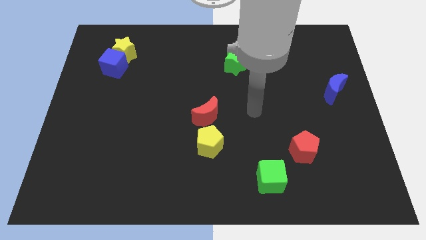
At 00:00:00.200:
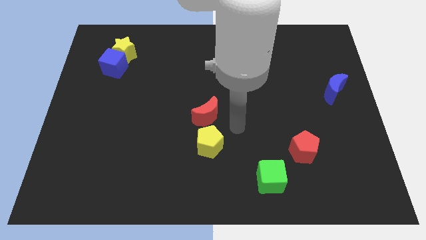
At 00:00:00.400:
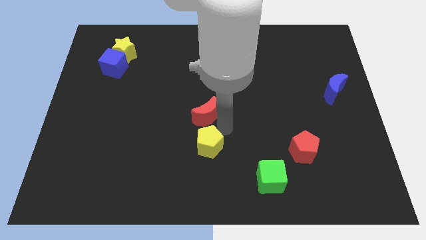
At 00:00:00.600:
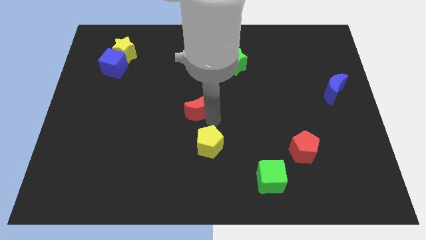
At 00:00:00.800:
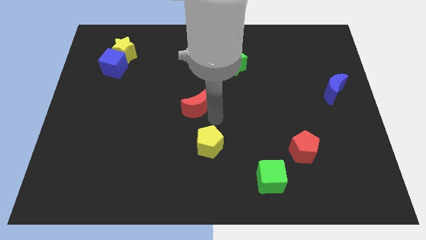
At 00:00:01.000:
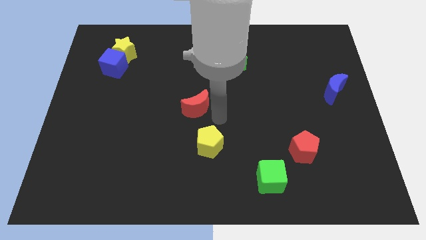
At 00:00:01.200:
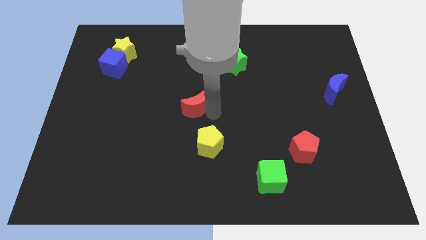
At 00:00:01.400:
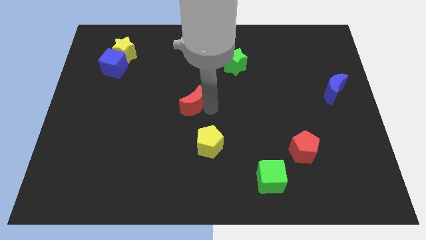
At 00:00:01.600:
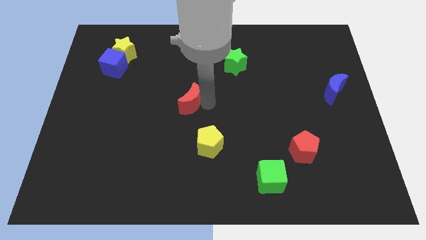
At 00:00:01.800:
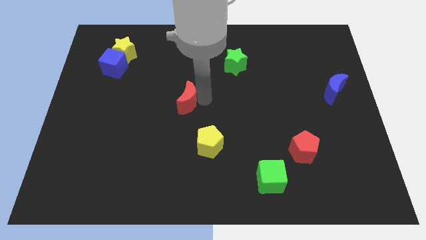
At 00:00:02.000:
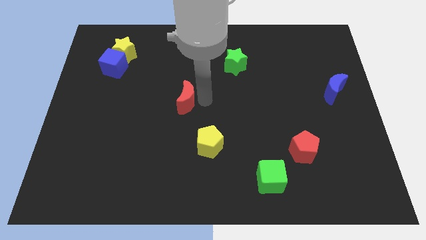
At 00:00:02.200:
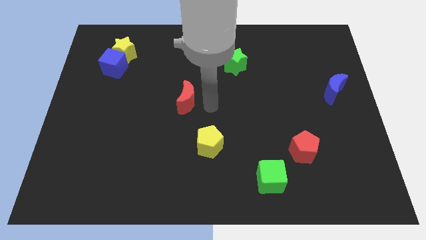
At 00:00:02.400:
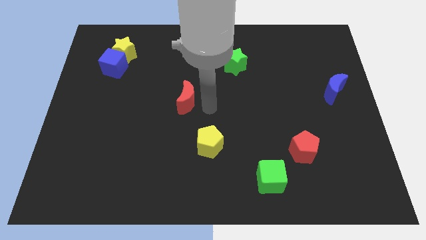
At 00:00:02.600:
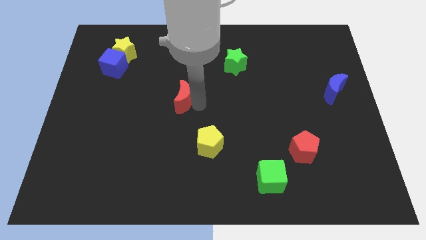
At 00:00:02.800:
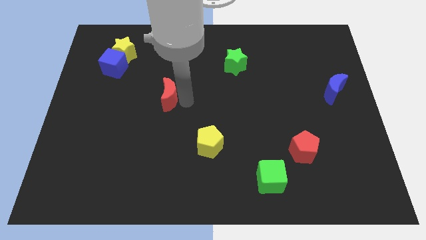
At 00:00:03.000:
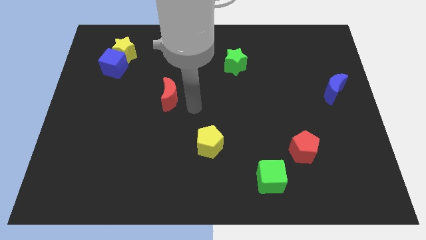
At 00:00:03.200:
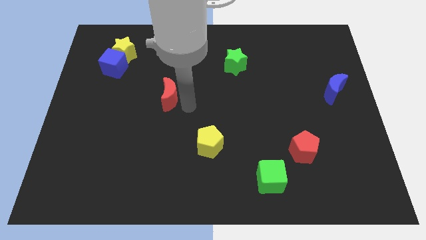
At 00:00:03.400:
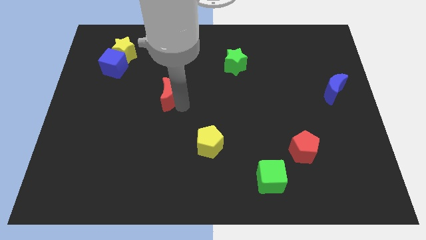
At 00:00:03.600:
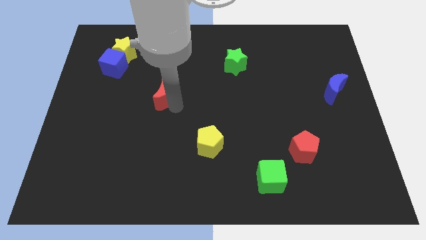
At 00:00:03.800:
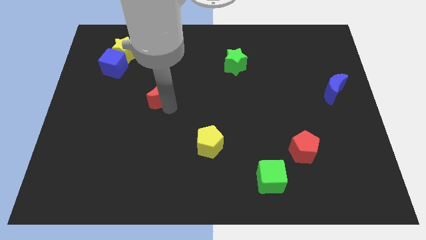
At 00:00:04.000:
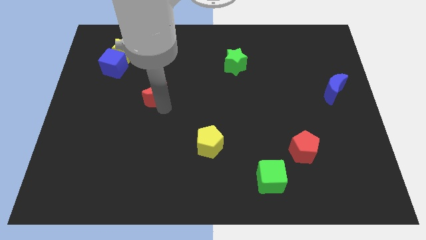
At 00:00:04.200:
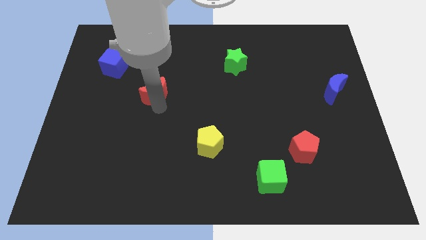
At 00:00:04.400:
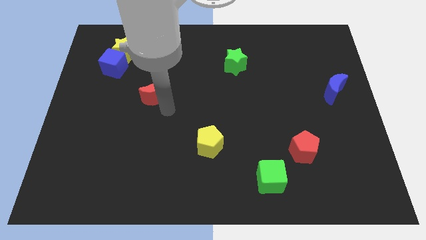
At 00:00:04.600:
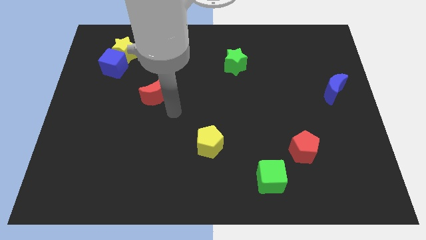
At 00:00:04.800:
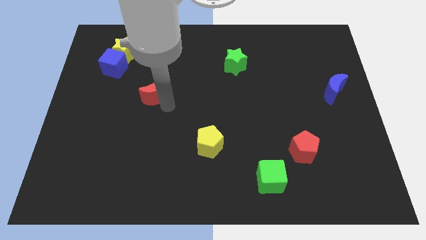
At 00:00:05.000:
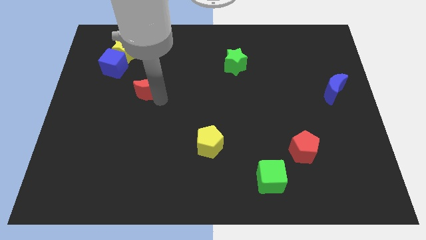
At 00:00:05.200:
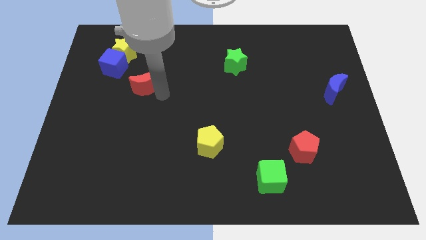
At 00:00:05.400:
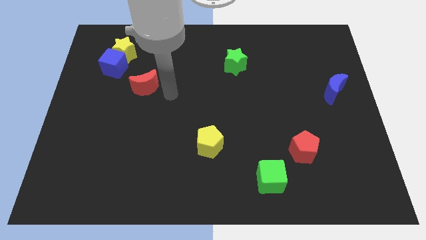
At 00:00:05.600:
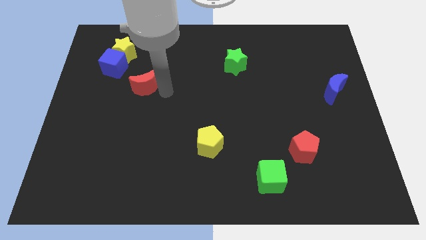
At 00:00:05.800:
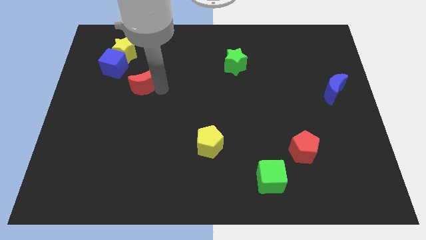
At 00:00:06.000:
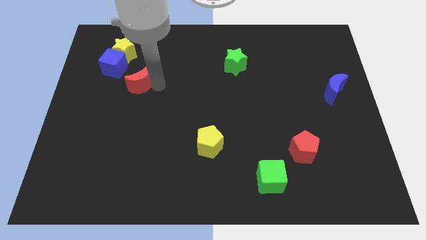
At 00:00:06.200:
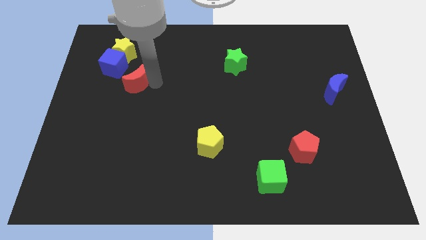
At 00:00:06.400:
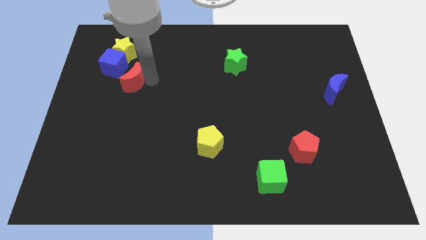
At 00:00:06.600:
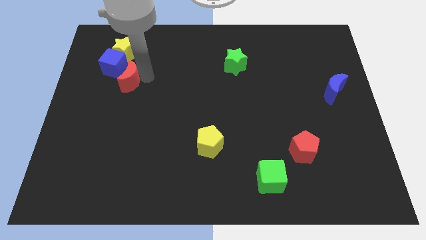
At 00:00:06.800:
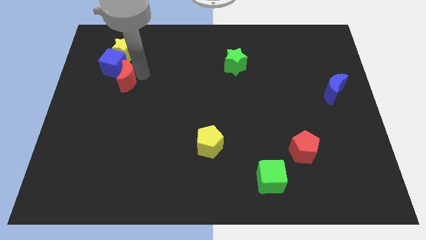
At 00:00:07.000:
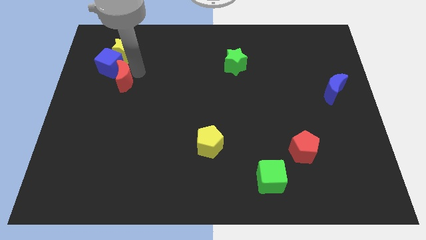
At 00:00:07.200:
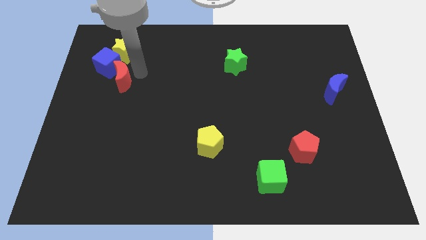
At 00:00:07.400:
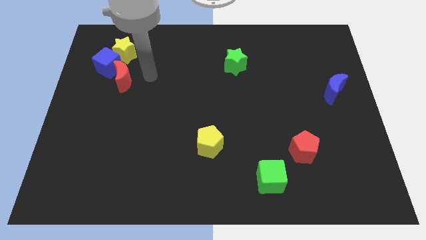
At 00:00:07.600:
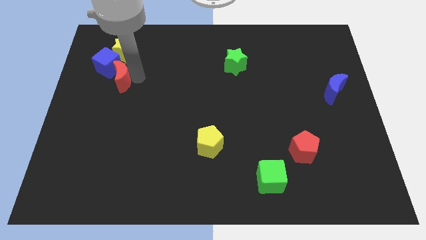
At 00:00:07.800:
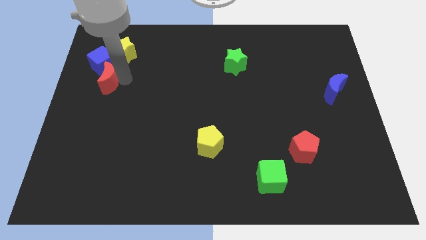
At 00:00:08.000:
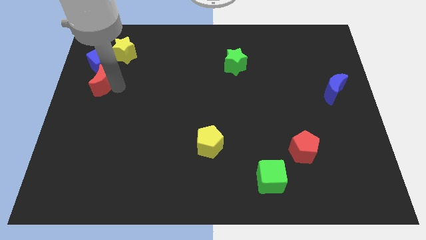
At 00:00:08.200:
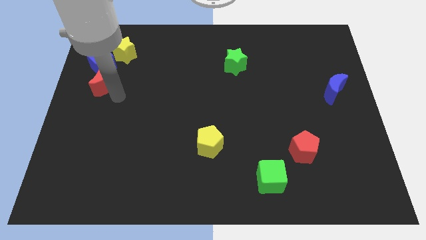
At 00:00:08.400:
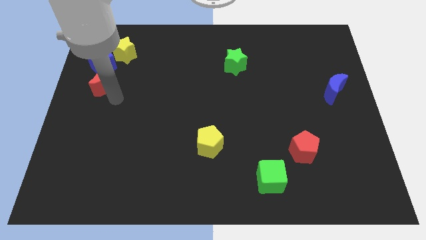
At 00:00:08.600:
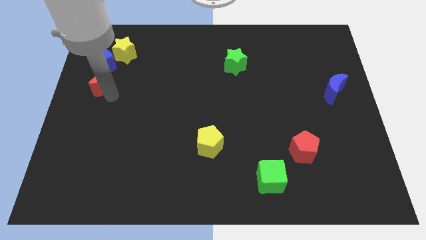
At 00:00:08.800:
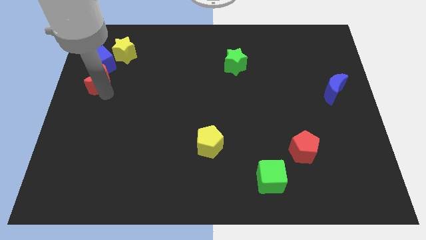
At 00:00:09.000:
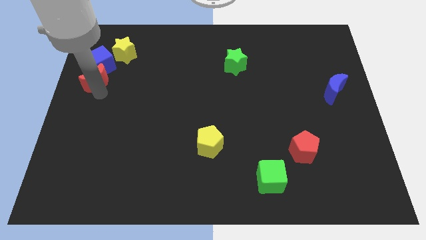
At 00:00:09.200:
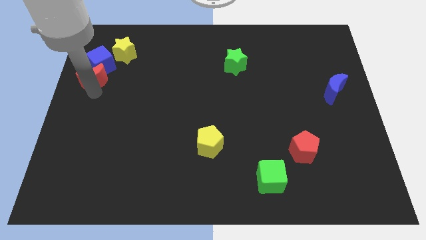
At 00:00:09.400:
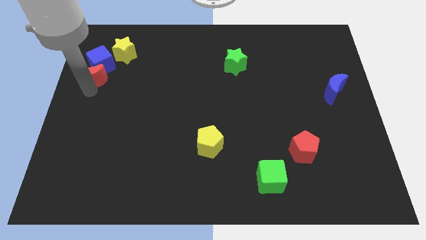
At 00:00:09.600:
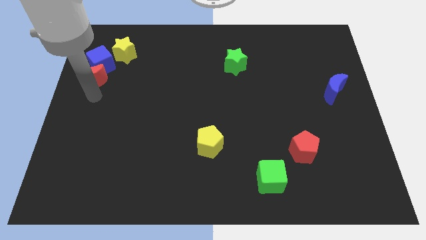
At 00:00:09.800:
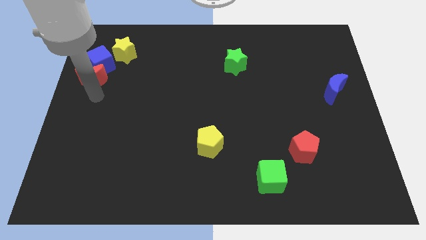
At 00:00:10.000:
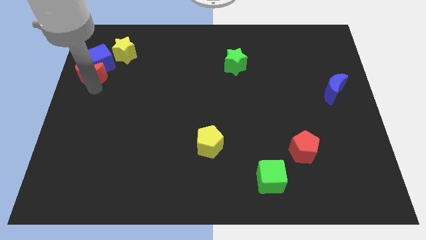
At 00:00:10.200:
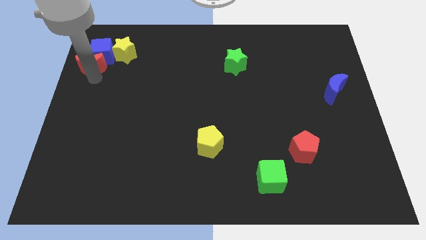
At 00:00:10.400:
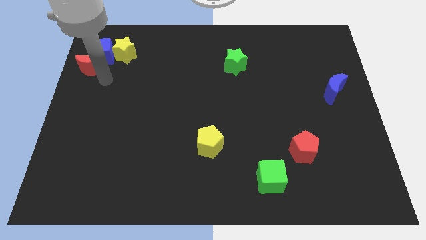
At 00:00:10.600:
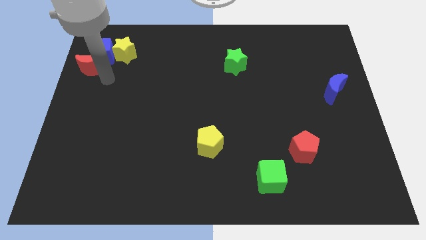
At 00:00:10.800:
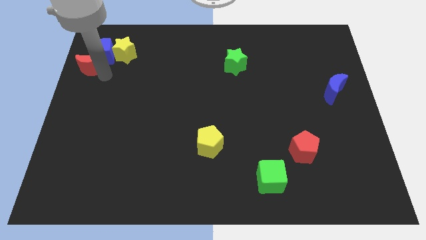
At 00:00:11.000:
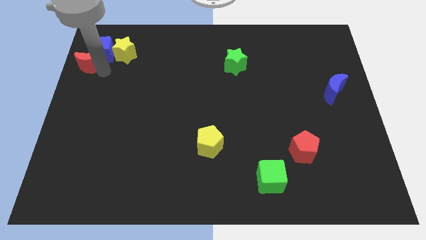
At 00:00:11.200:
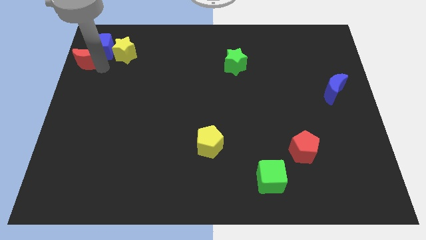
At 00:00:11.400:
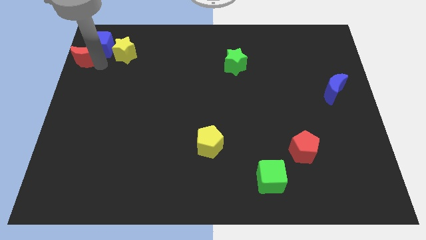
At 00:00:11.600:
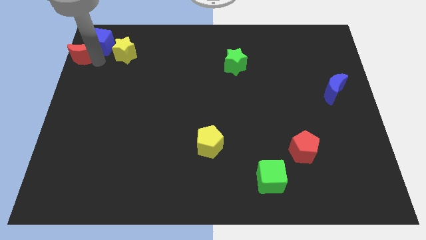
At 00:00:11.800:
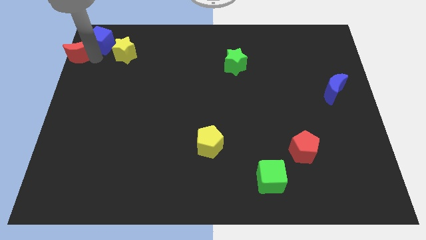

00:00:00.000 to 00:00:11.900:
push the red moon to the top left corner
